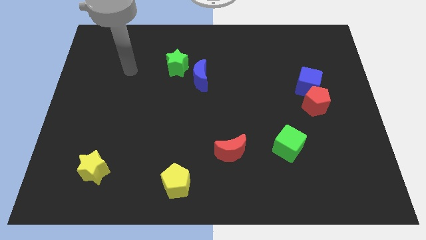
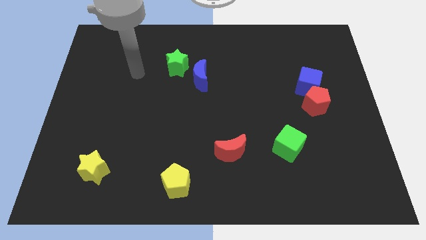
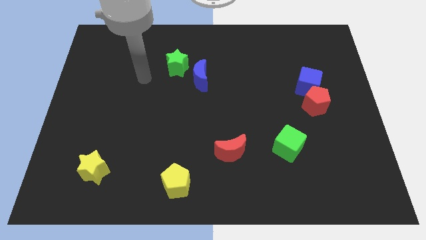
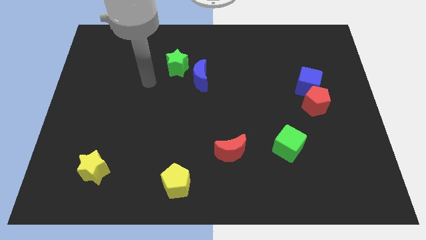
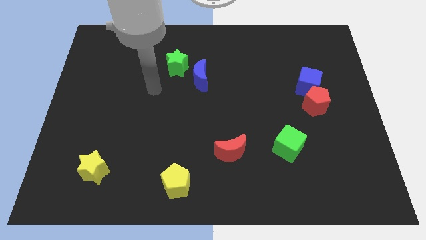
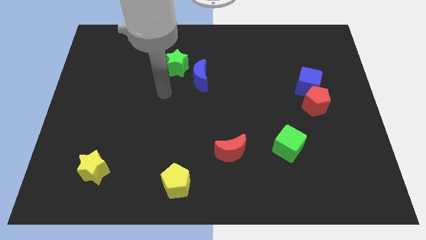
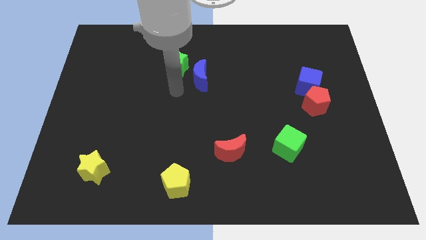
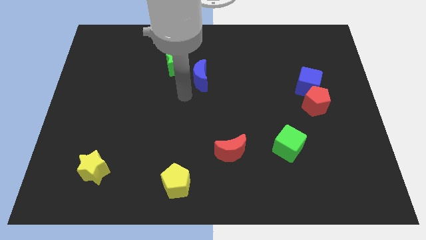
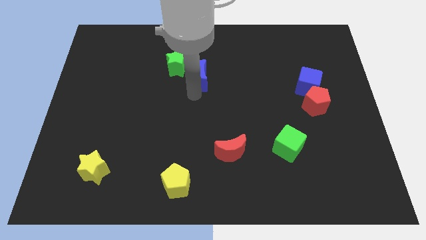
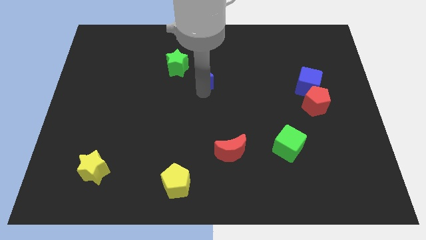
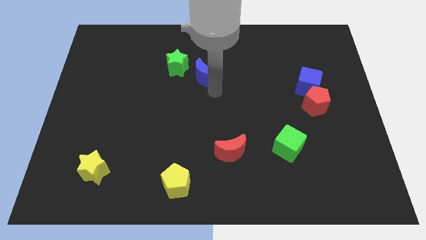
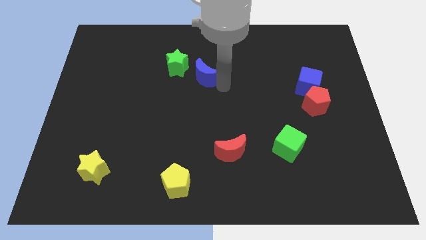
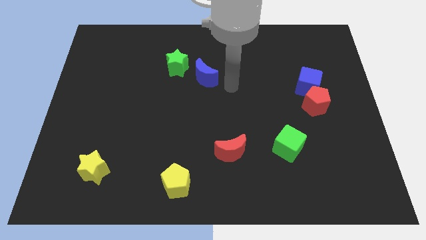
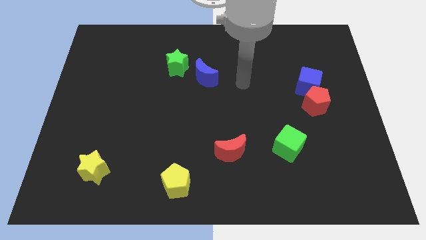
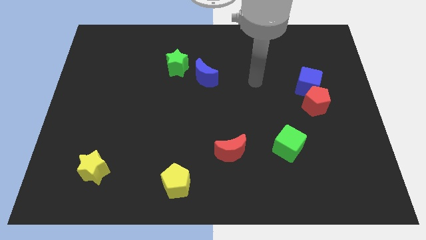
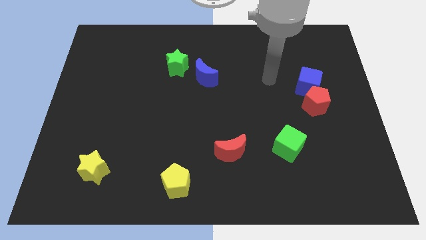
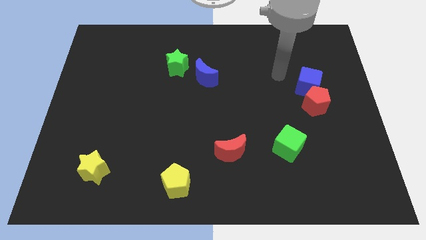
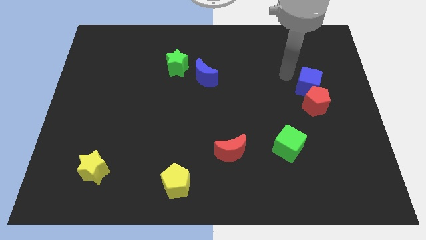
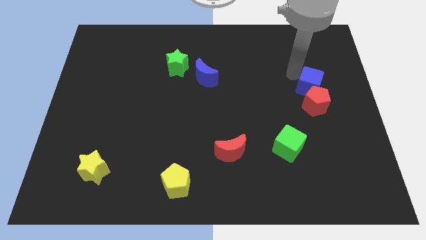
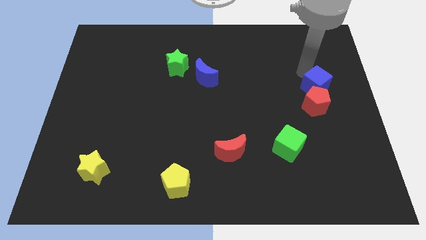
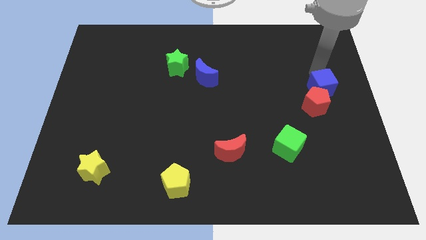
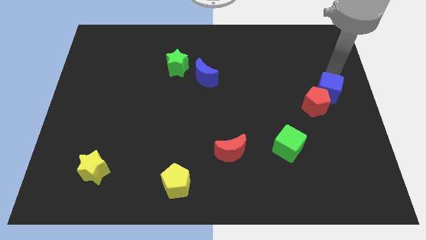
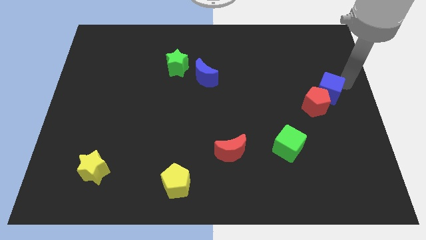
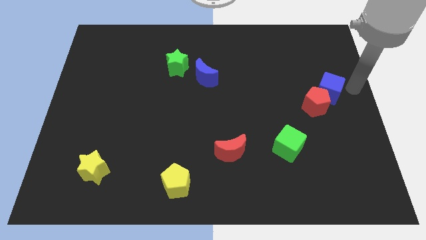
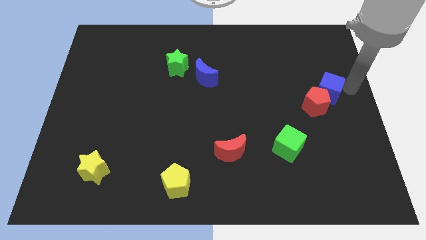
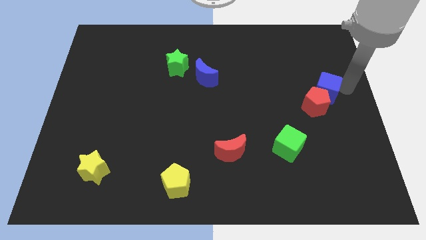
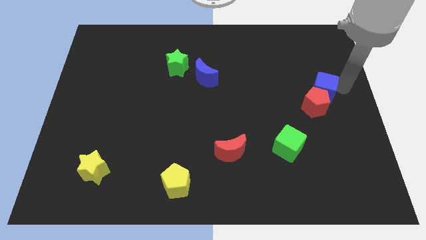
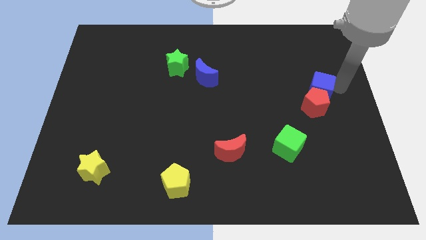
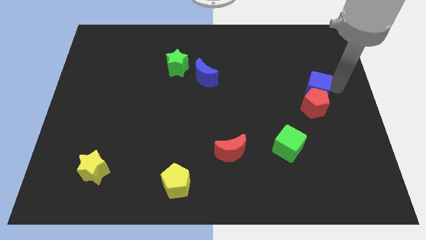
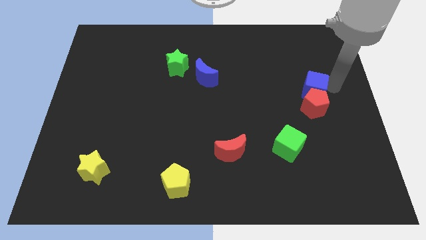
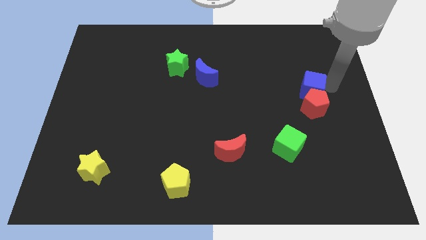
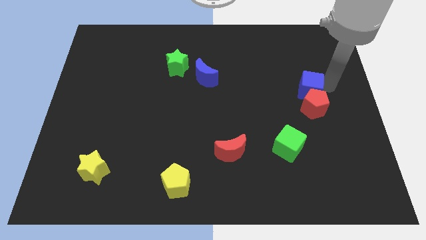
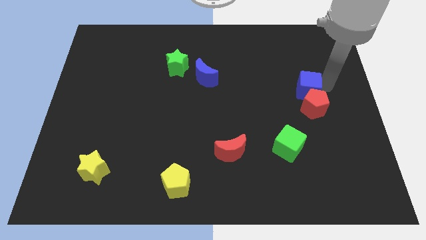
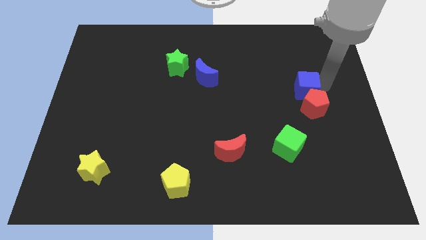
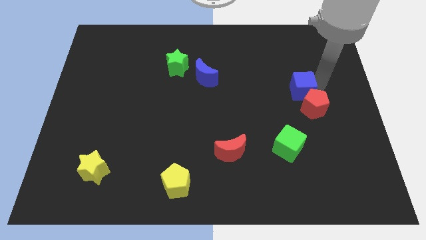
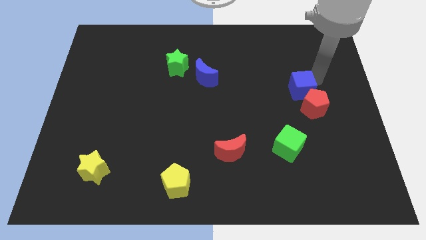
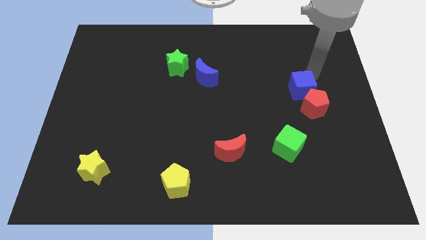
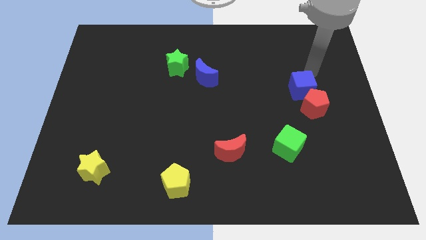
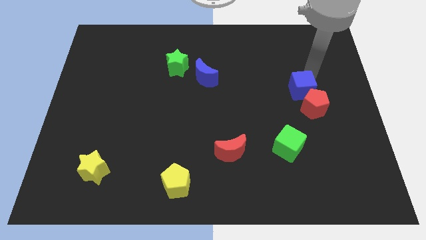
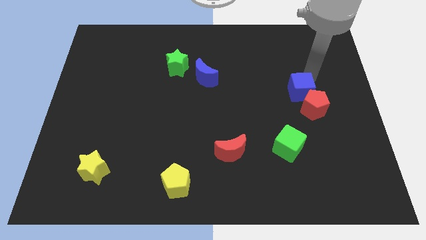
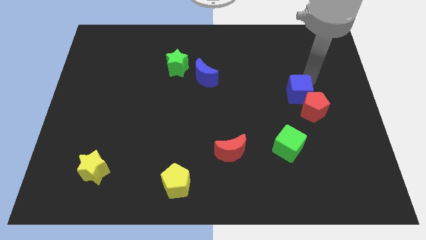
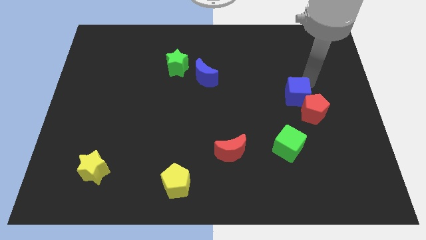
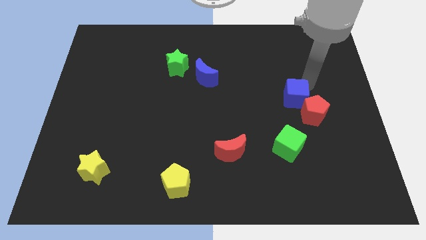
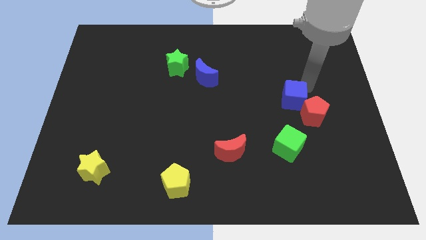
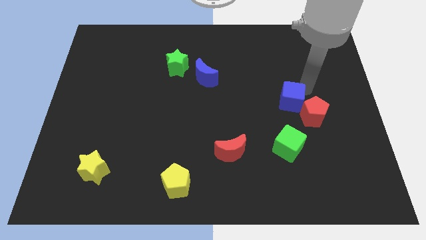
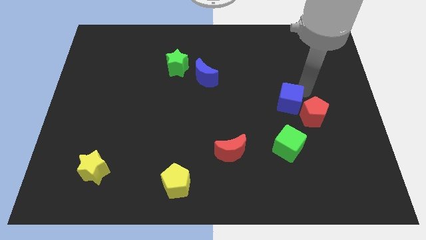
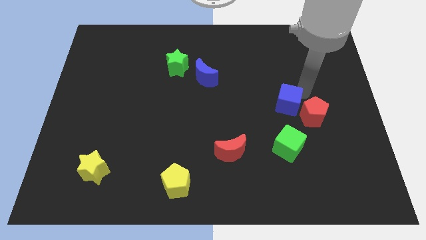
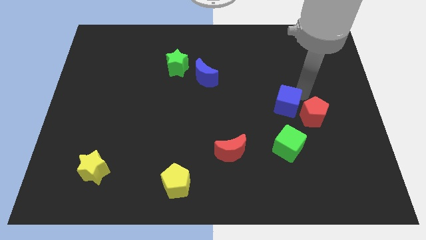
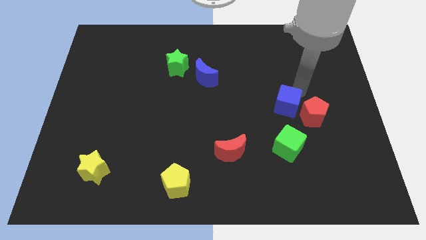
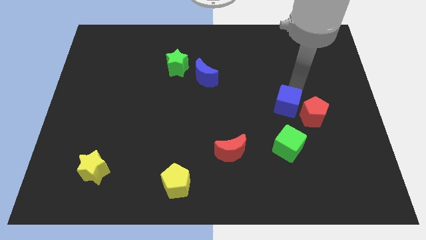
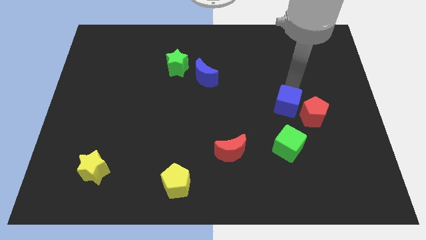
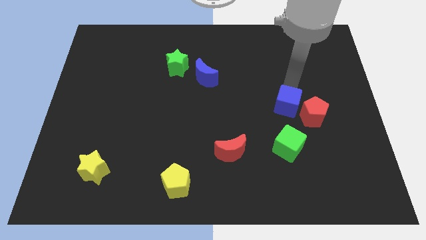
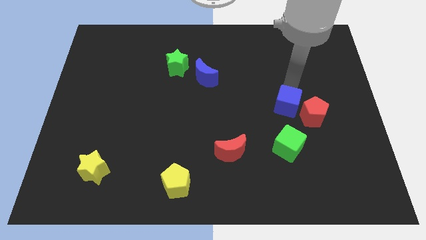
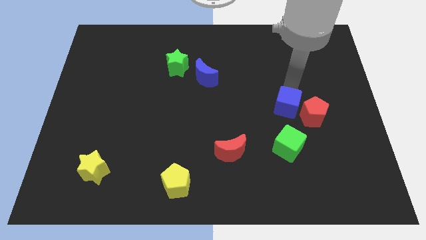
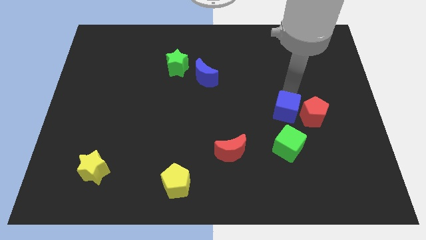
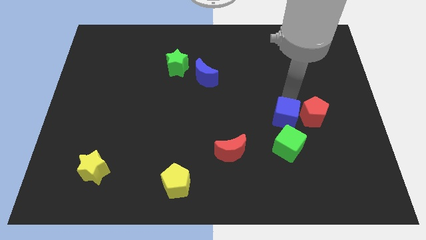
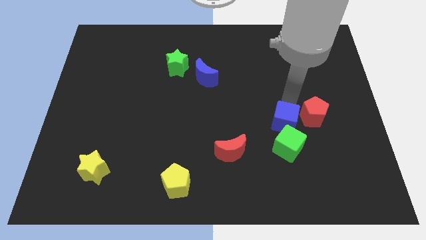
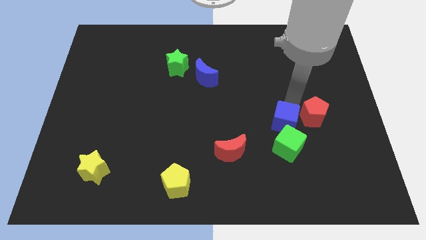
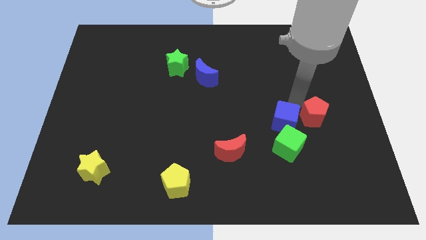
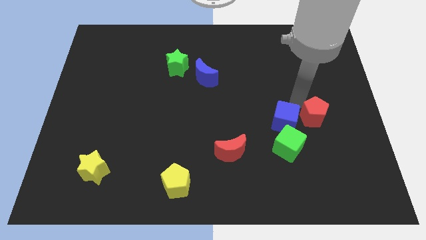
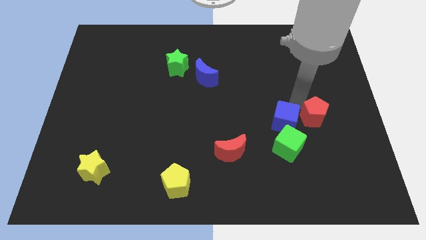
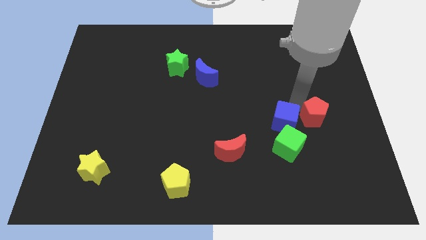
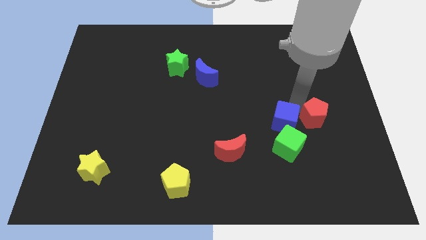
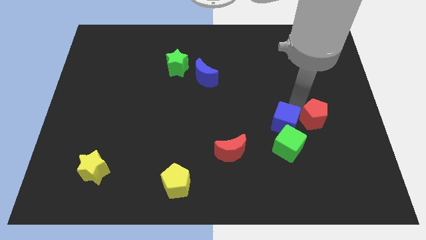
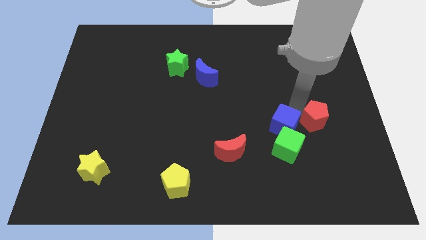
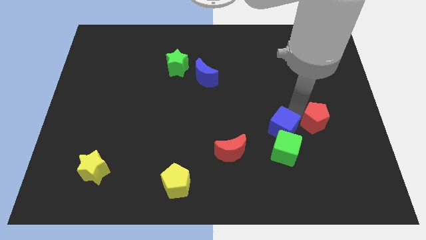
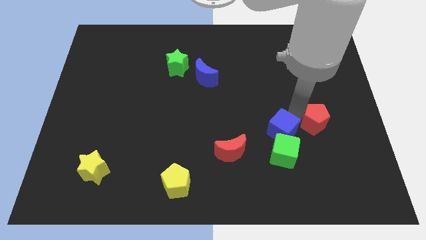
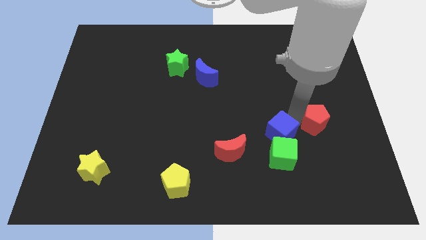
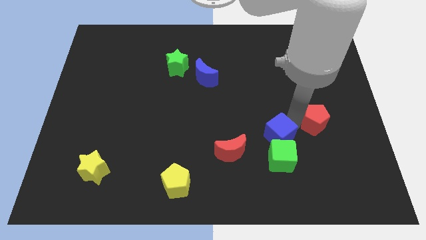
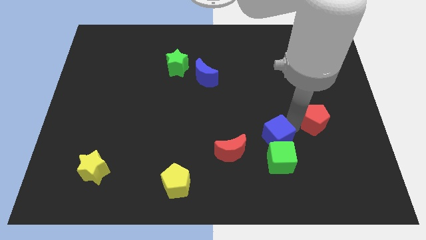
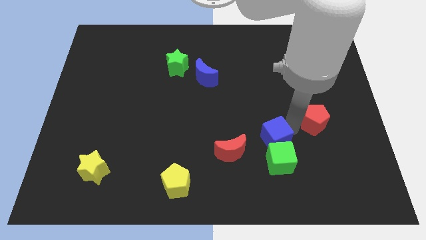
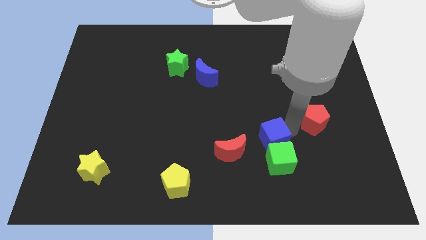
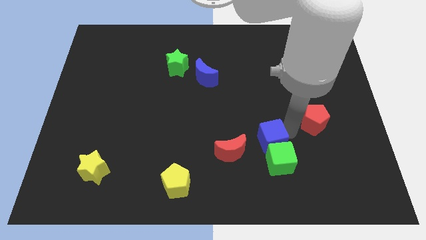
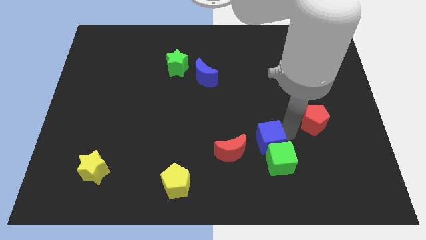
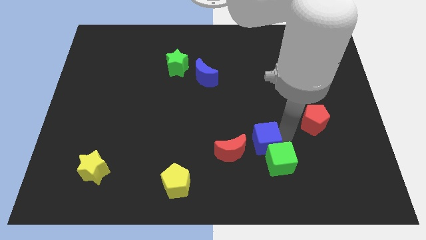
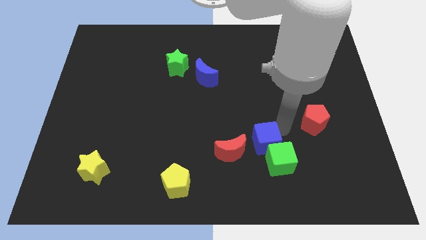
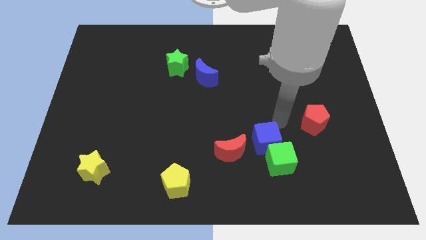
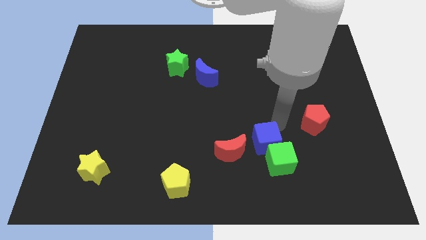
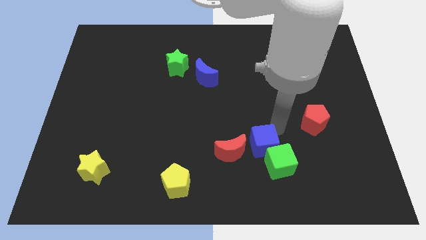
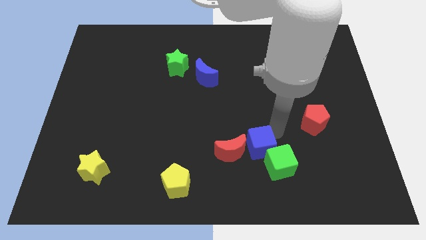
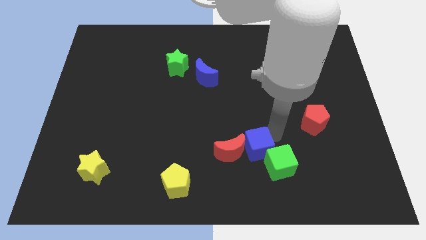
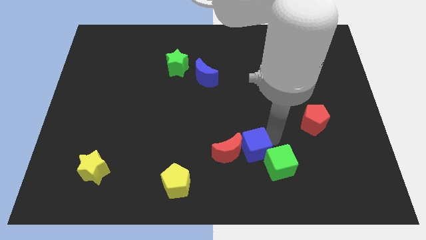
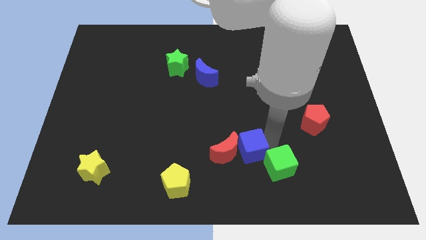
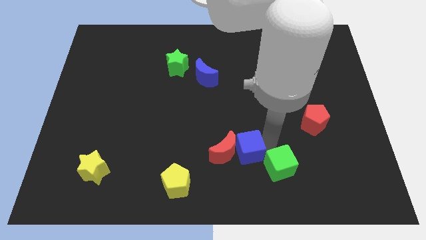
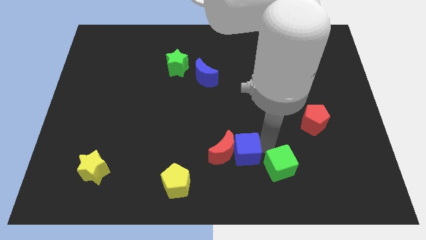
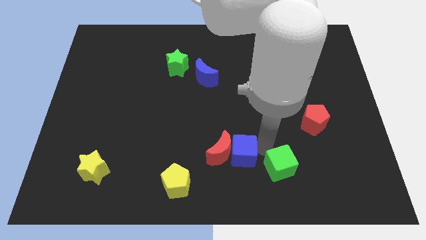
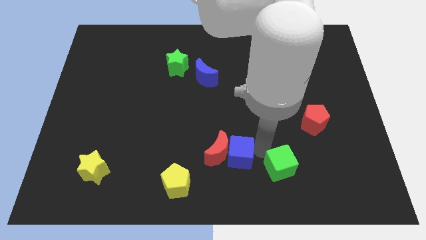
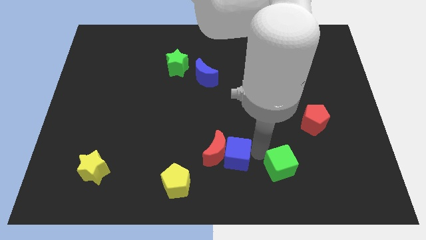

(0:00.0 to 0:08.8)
slide the blue cube to the bottom side
